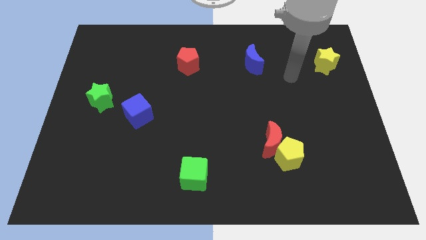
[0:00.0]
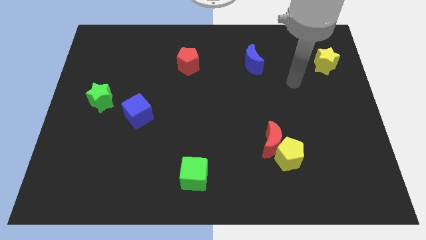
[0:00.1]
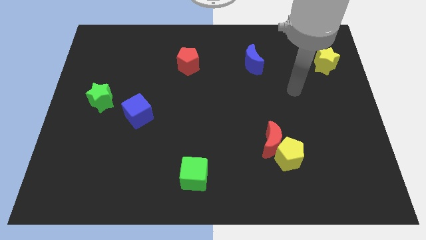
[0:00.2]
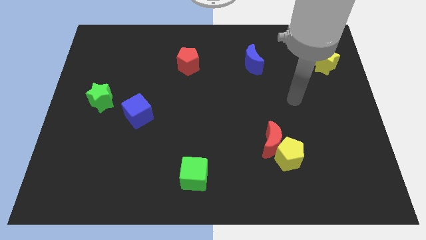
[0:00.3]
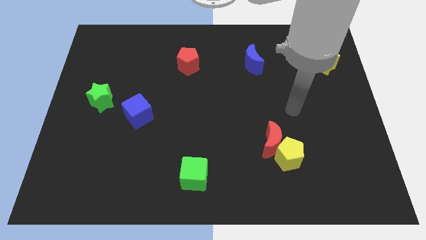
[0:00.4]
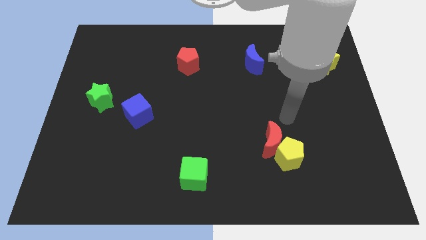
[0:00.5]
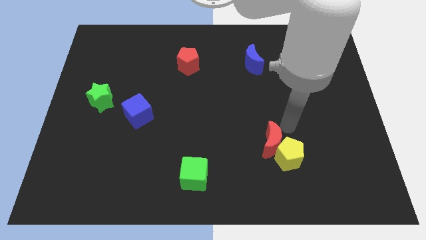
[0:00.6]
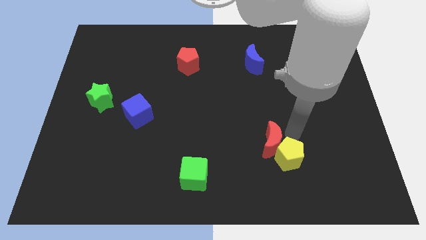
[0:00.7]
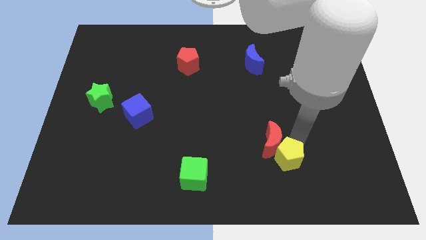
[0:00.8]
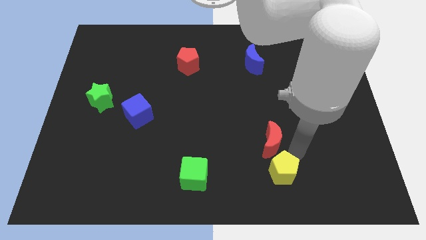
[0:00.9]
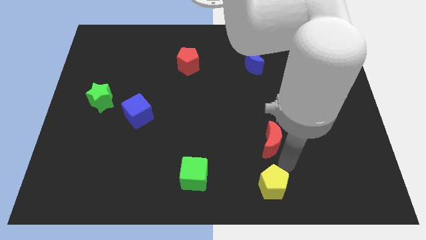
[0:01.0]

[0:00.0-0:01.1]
move the red moon away from the yellow pentagon

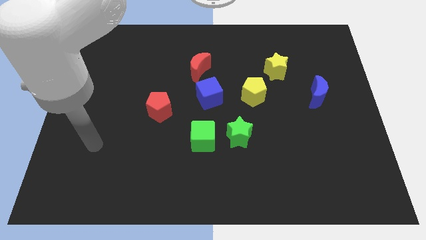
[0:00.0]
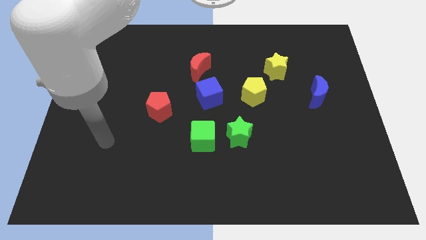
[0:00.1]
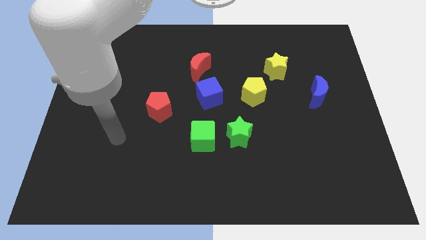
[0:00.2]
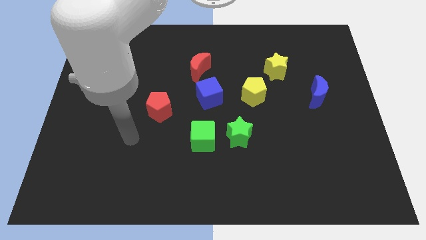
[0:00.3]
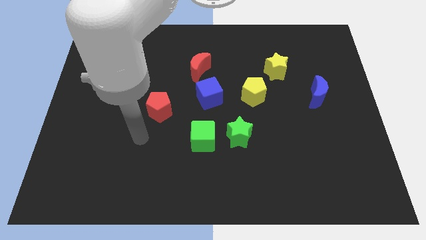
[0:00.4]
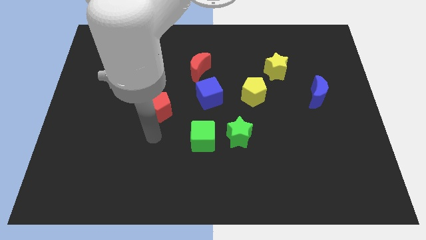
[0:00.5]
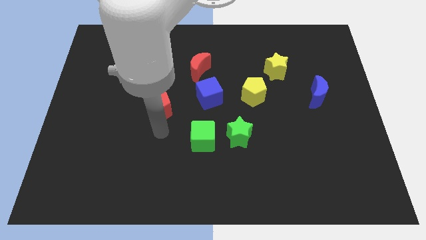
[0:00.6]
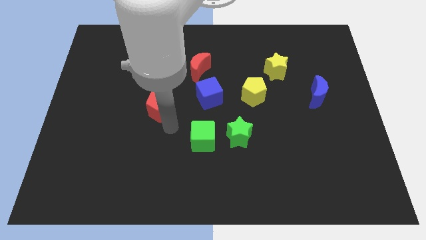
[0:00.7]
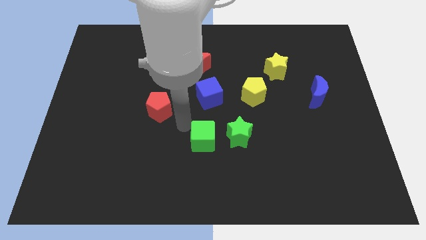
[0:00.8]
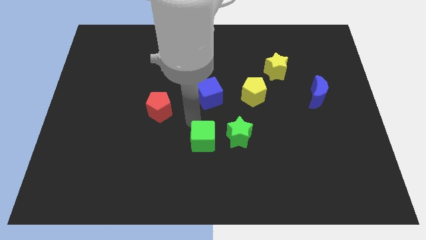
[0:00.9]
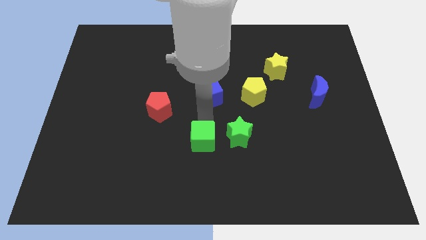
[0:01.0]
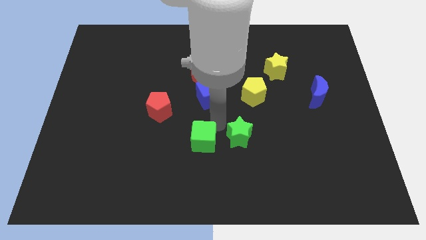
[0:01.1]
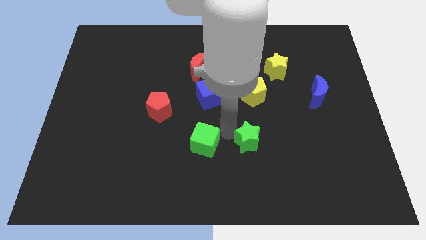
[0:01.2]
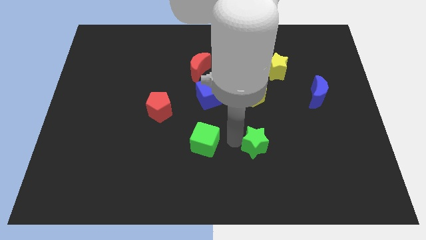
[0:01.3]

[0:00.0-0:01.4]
pull the green cube apart from the green star

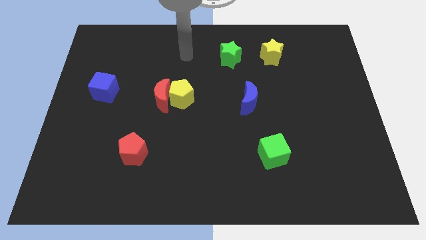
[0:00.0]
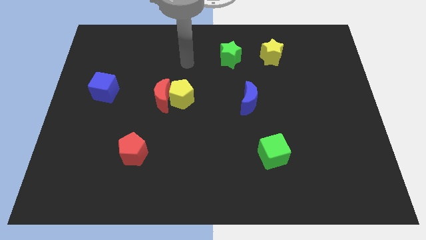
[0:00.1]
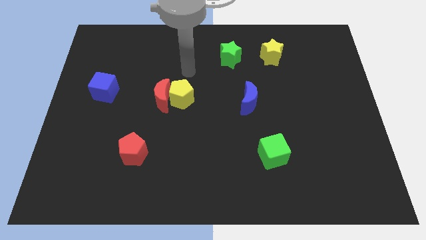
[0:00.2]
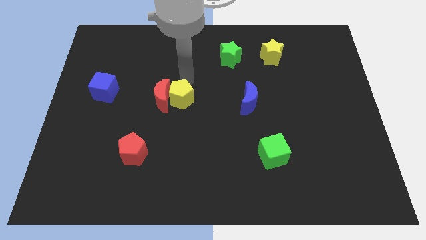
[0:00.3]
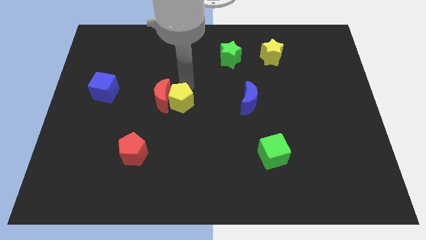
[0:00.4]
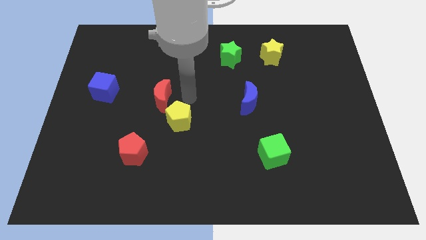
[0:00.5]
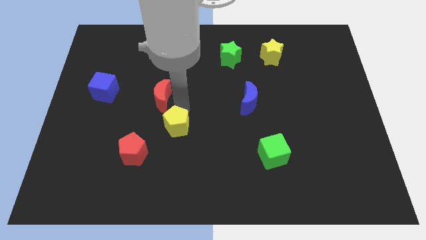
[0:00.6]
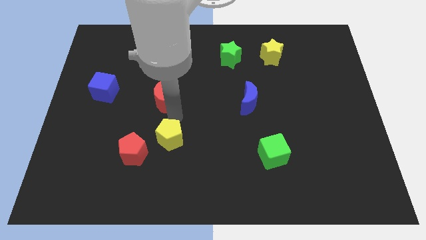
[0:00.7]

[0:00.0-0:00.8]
pull the red moon apart from the yellow pentagon

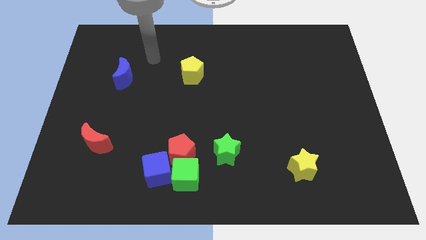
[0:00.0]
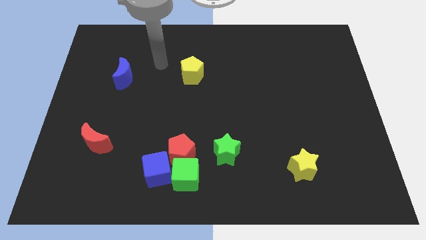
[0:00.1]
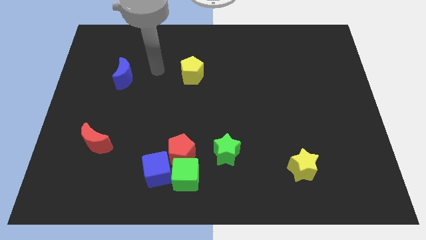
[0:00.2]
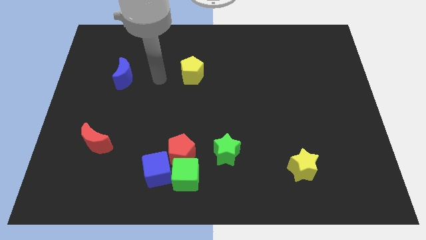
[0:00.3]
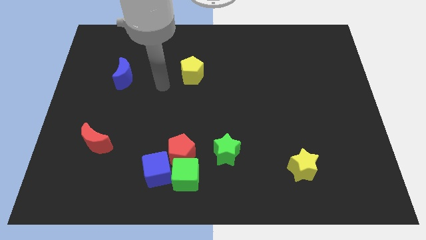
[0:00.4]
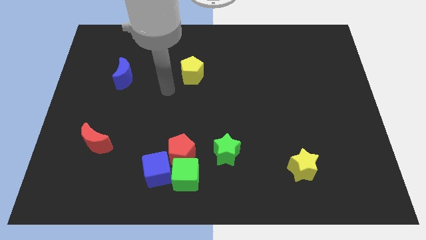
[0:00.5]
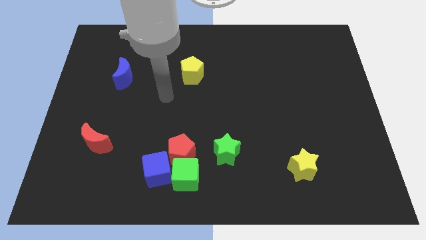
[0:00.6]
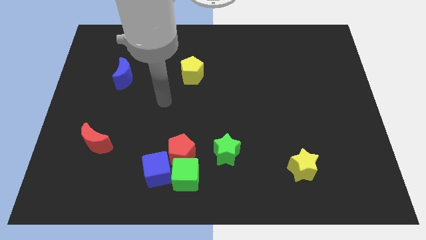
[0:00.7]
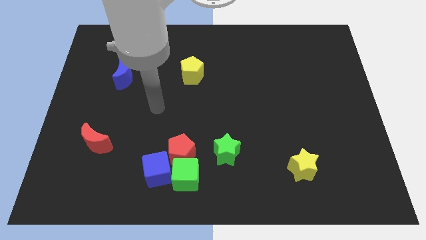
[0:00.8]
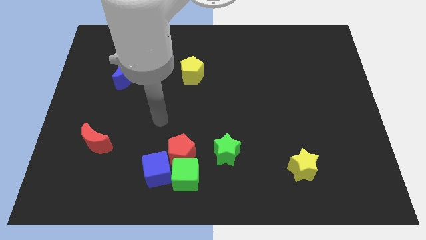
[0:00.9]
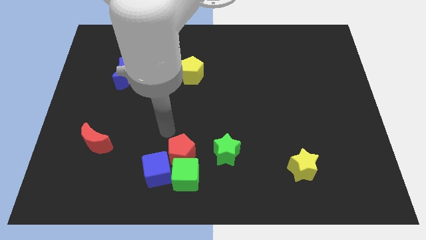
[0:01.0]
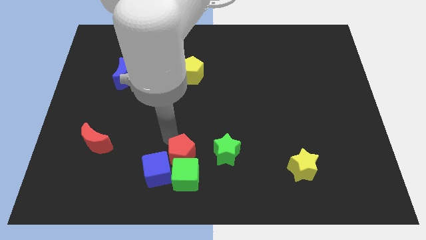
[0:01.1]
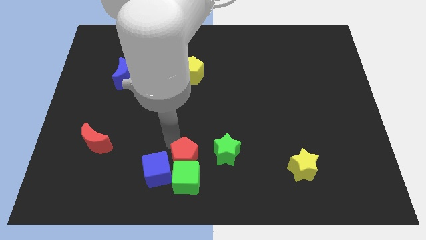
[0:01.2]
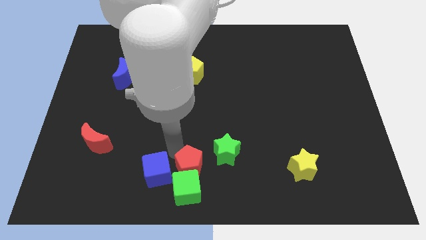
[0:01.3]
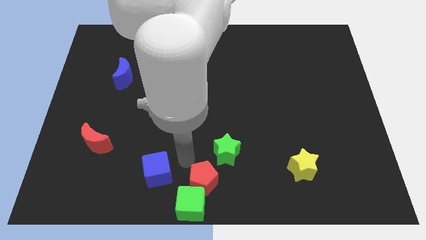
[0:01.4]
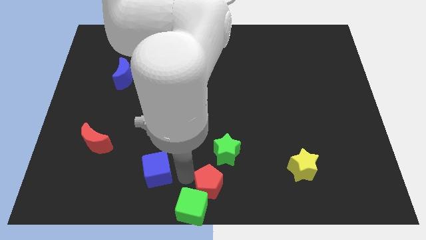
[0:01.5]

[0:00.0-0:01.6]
move the blue cube away from the green cube and red pentagon

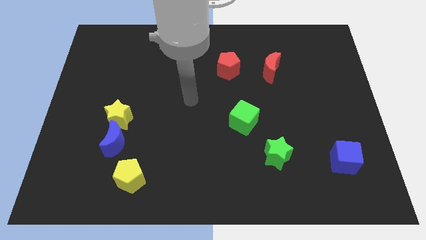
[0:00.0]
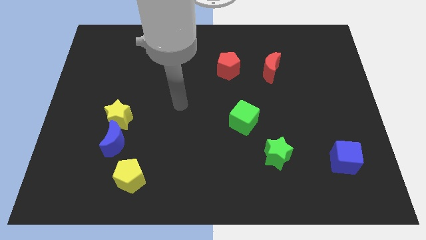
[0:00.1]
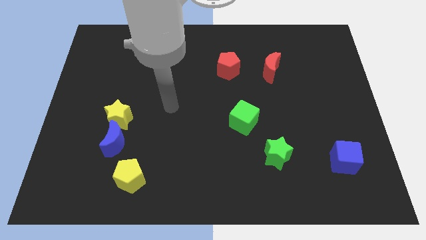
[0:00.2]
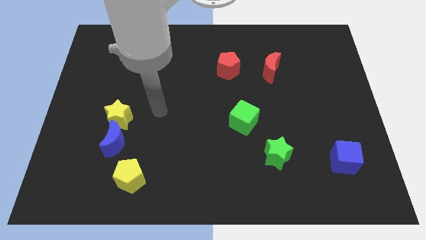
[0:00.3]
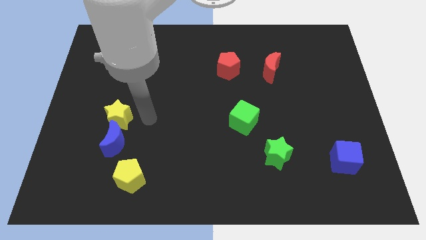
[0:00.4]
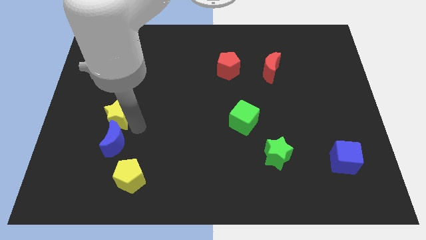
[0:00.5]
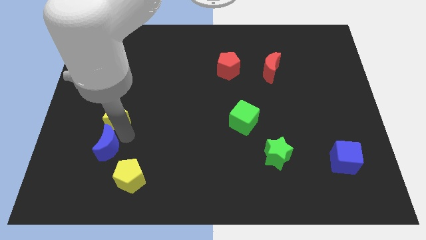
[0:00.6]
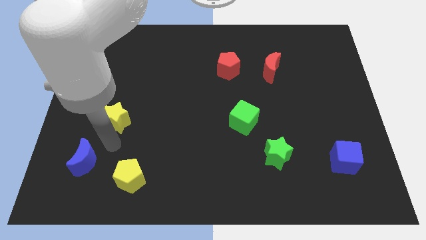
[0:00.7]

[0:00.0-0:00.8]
pull the yellow star apart from the blue moon

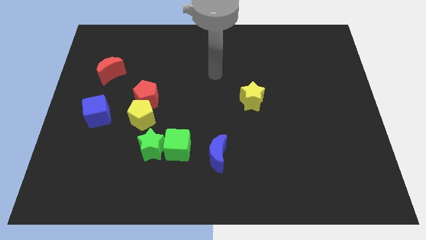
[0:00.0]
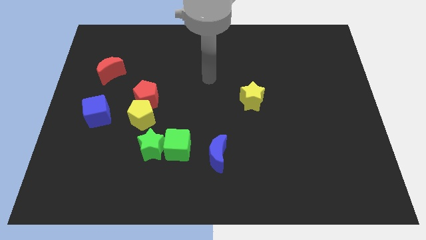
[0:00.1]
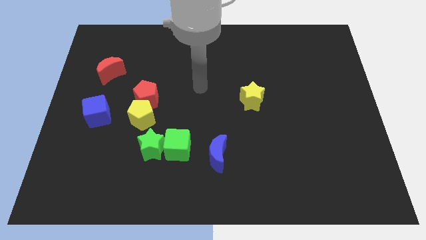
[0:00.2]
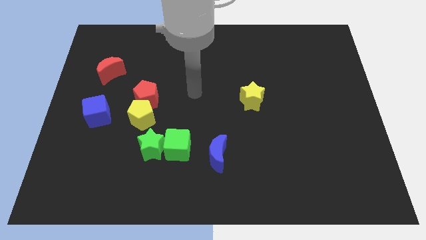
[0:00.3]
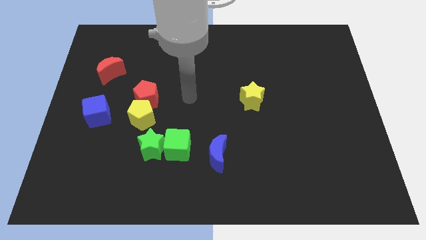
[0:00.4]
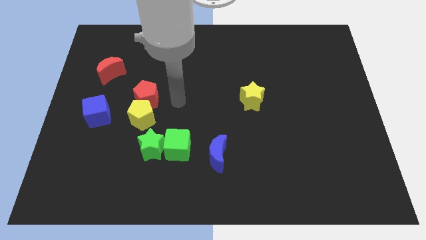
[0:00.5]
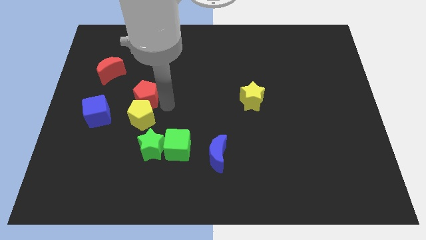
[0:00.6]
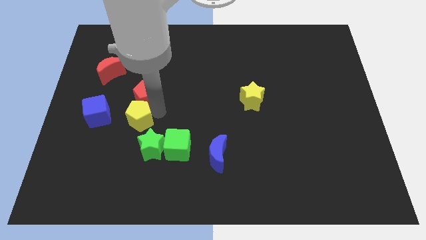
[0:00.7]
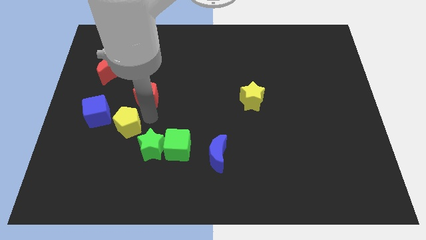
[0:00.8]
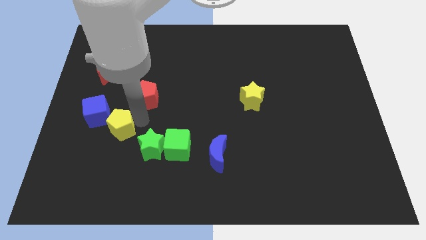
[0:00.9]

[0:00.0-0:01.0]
separate the red pentagon from the yellow pentagon

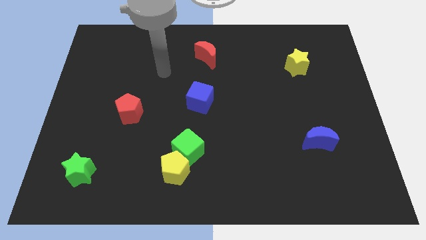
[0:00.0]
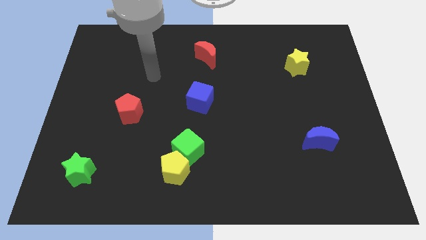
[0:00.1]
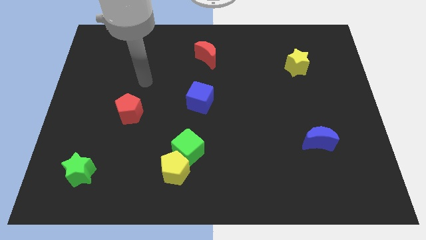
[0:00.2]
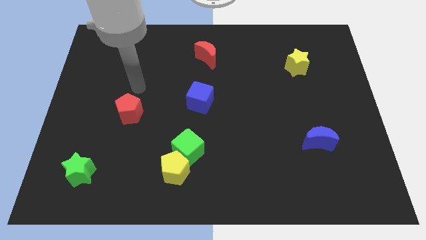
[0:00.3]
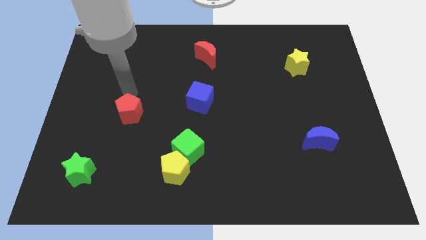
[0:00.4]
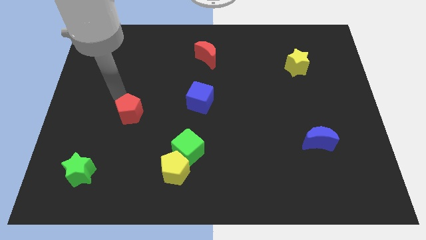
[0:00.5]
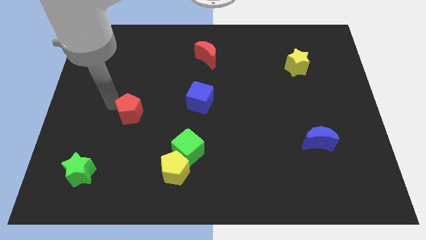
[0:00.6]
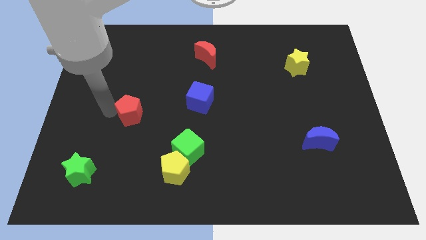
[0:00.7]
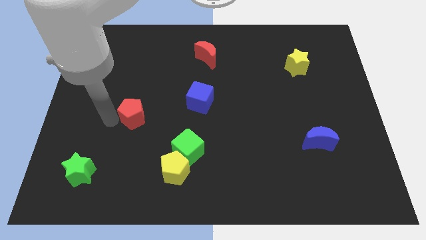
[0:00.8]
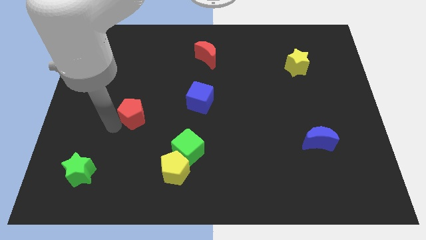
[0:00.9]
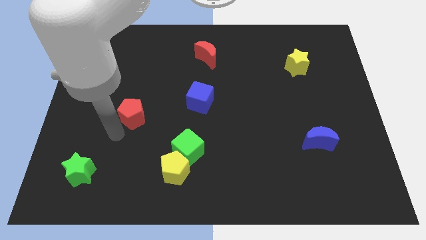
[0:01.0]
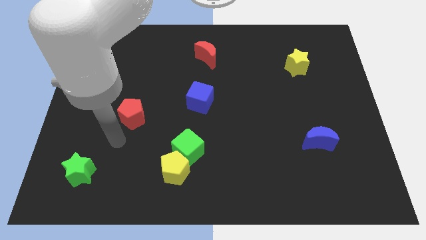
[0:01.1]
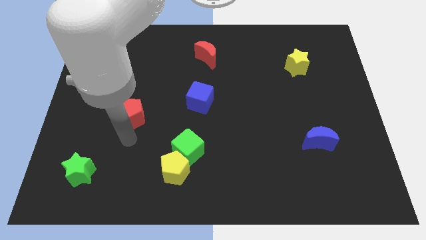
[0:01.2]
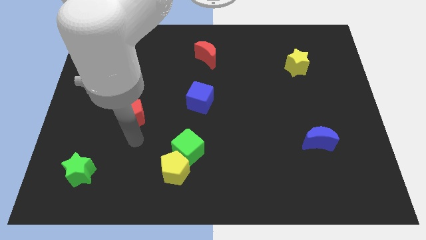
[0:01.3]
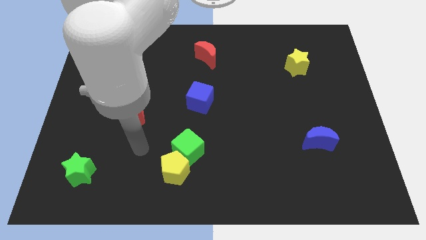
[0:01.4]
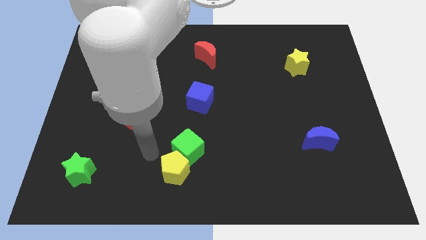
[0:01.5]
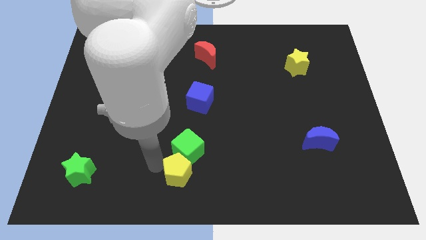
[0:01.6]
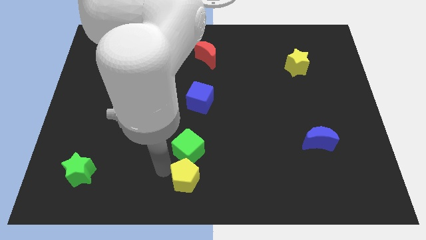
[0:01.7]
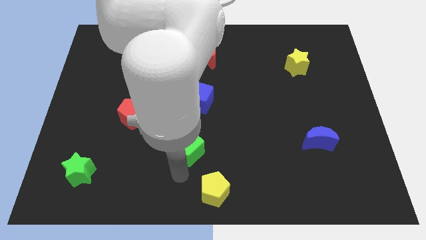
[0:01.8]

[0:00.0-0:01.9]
pull the green cube apart from the yellow pentagon

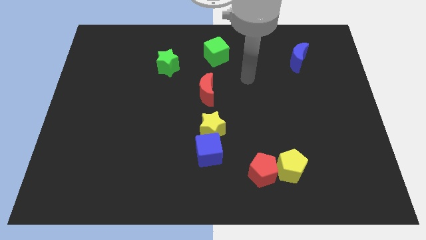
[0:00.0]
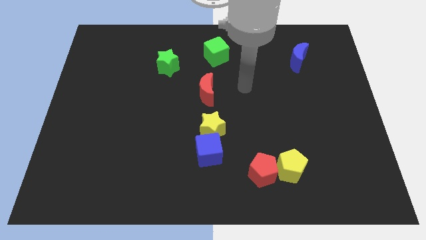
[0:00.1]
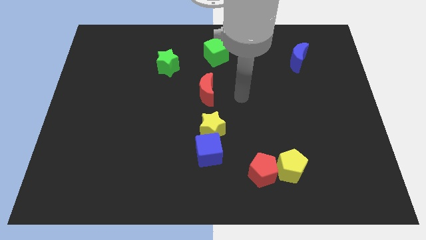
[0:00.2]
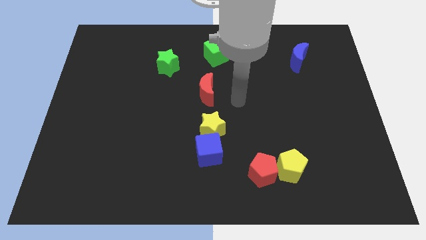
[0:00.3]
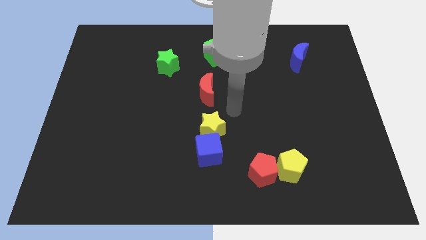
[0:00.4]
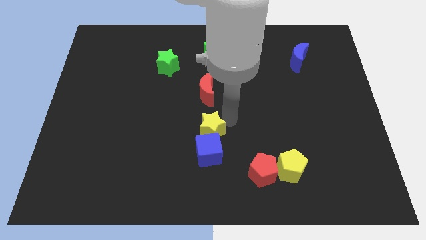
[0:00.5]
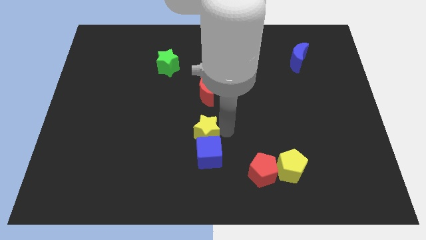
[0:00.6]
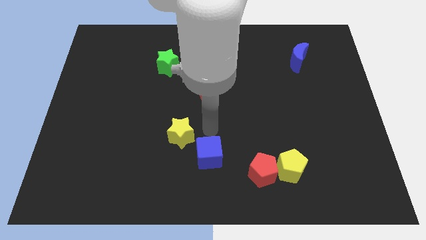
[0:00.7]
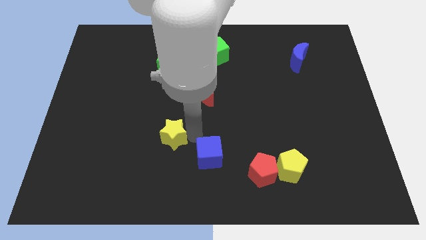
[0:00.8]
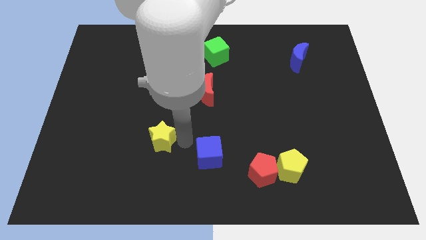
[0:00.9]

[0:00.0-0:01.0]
pull the blue cube apart from the yellow star
